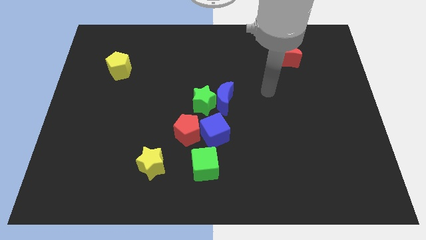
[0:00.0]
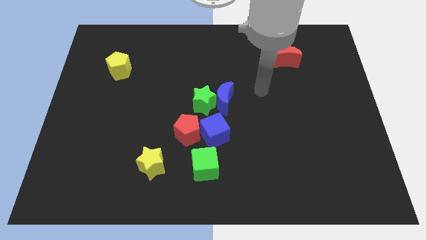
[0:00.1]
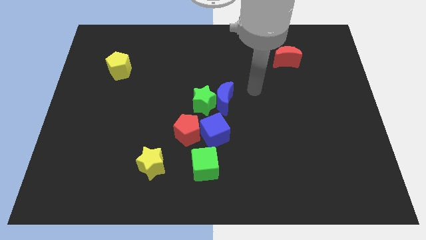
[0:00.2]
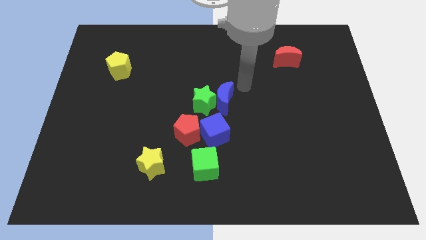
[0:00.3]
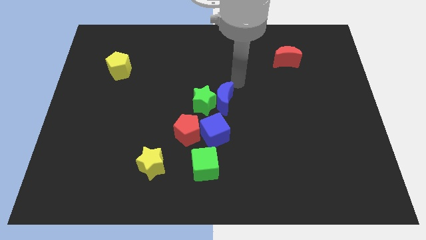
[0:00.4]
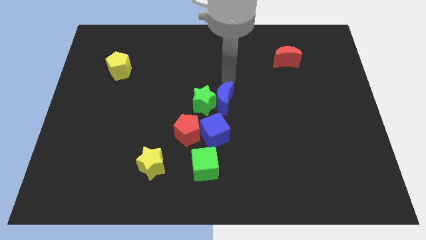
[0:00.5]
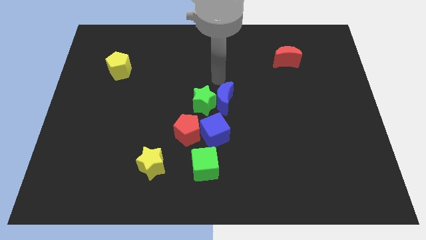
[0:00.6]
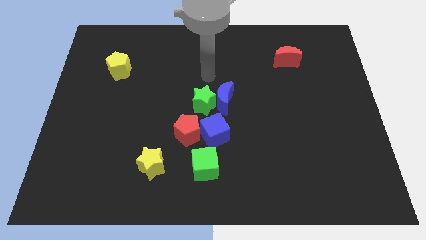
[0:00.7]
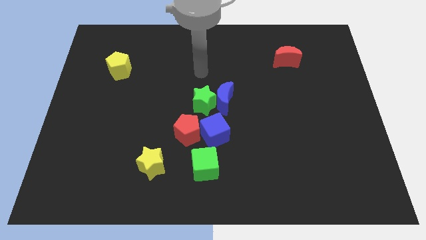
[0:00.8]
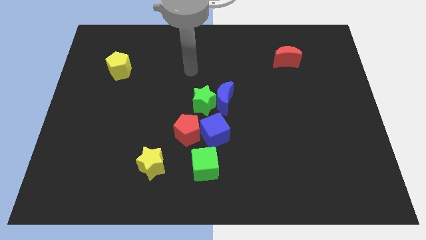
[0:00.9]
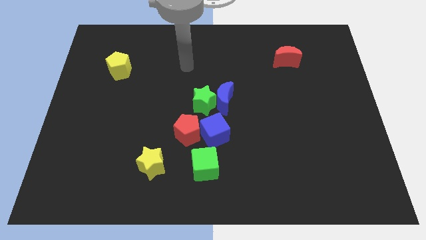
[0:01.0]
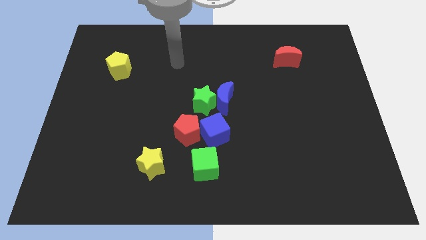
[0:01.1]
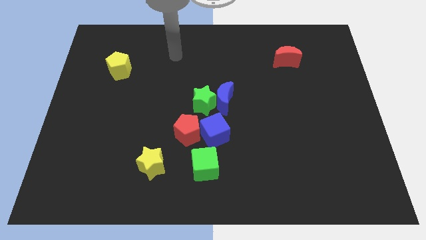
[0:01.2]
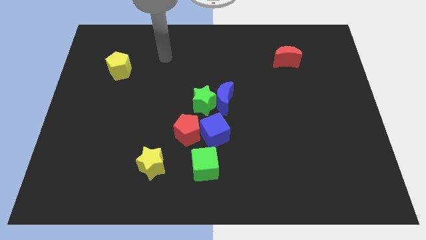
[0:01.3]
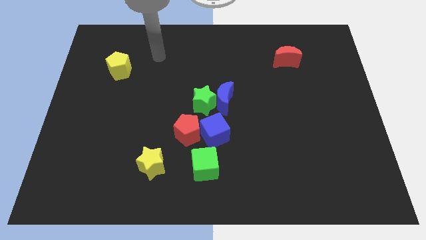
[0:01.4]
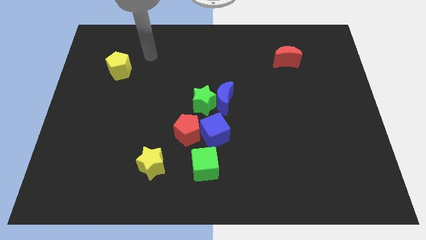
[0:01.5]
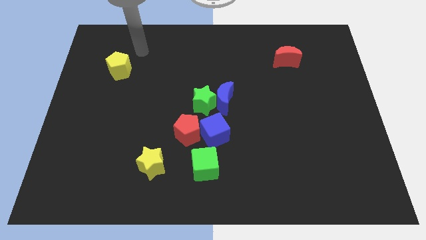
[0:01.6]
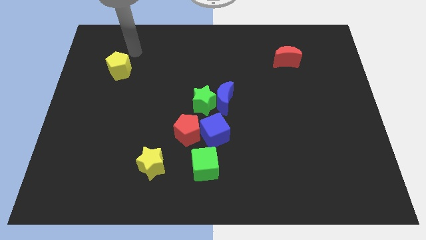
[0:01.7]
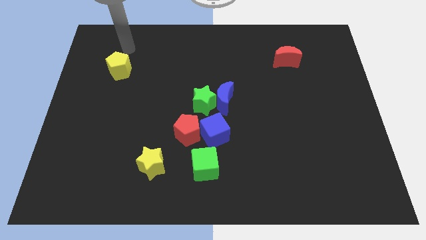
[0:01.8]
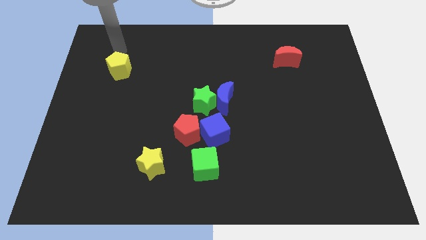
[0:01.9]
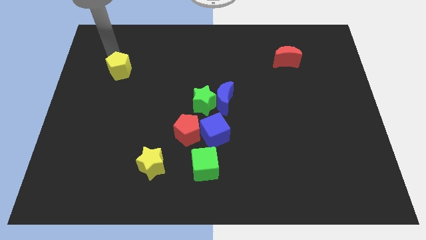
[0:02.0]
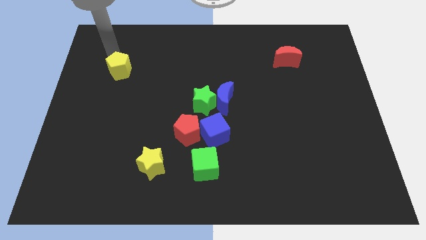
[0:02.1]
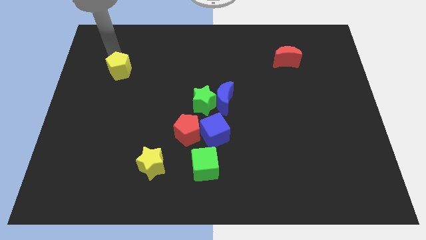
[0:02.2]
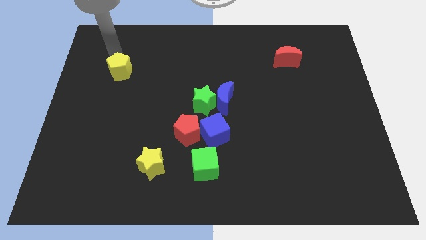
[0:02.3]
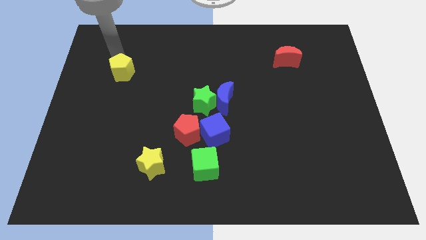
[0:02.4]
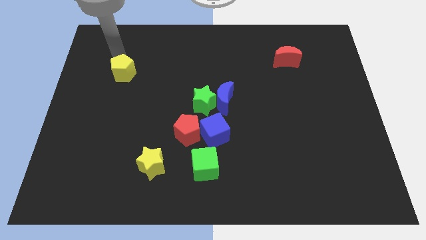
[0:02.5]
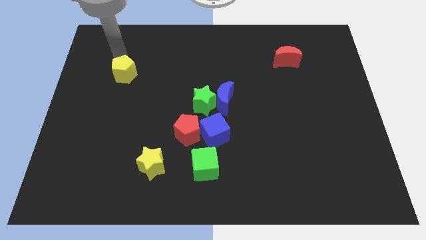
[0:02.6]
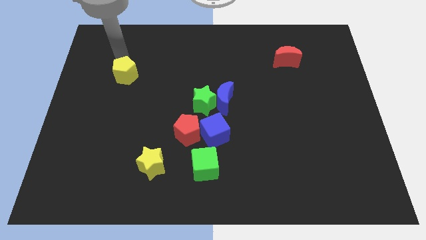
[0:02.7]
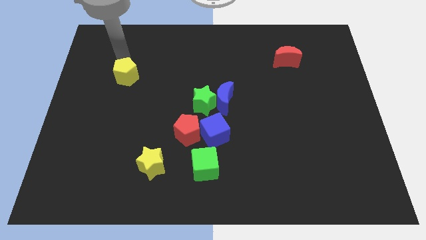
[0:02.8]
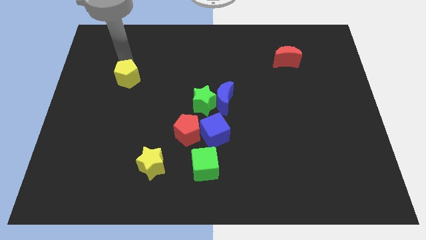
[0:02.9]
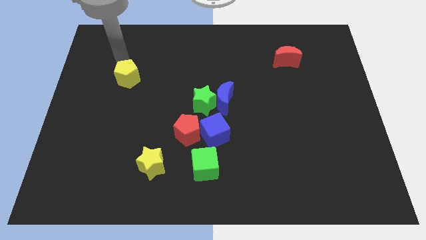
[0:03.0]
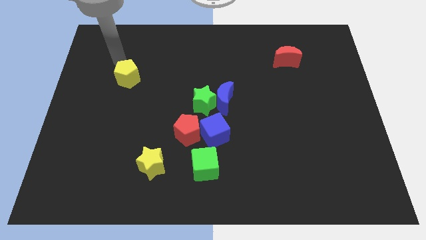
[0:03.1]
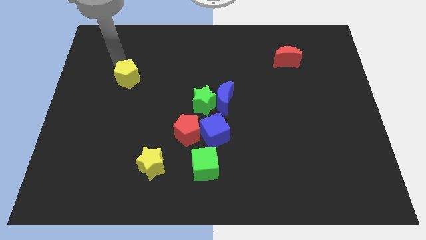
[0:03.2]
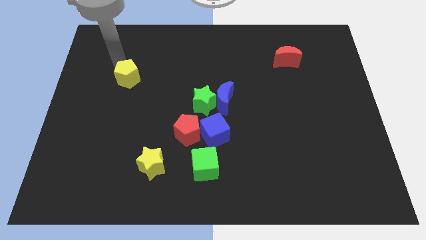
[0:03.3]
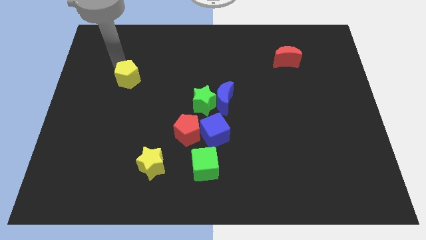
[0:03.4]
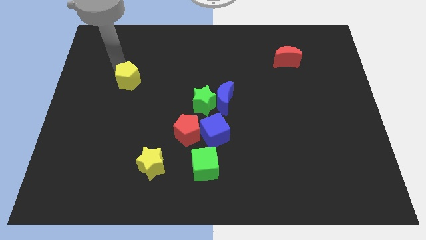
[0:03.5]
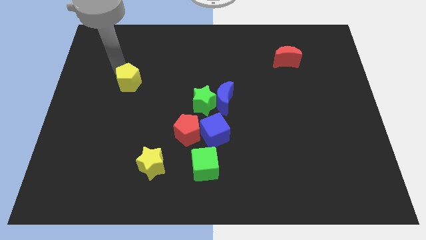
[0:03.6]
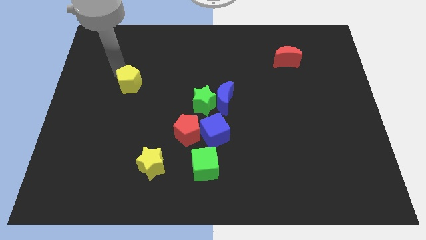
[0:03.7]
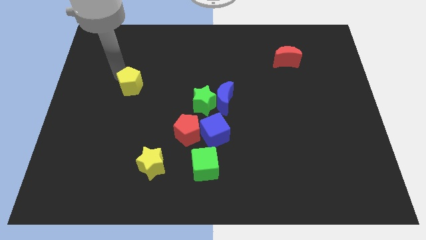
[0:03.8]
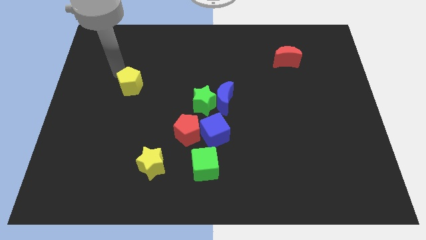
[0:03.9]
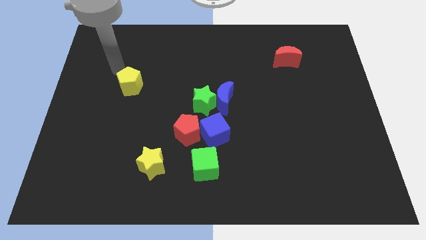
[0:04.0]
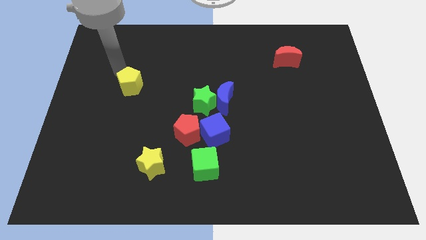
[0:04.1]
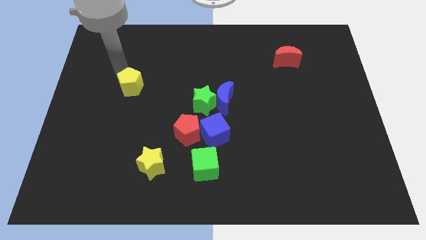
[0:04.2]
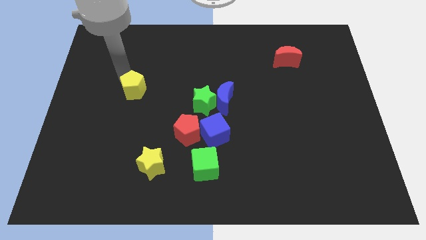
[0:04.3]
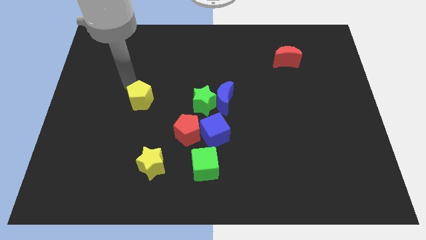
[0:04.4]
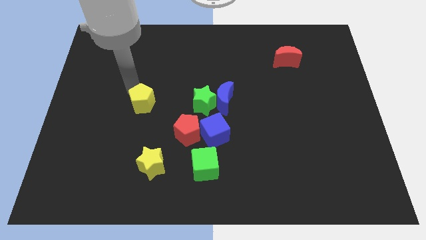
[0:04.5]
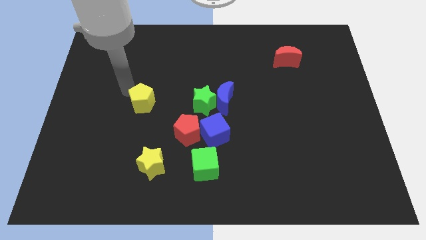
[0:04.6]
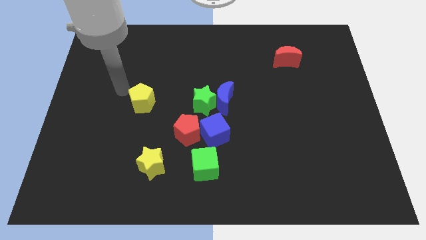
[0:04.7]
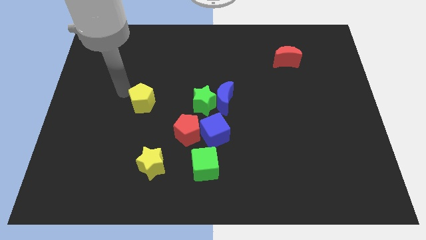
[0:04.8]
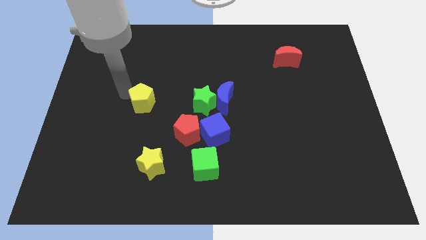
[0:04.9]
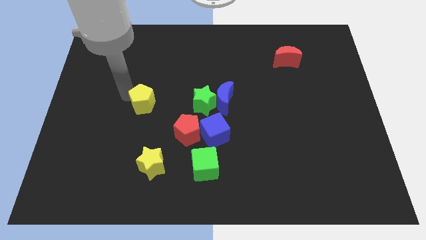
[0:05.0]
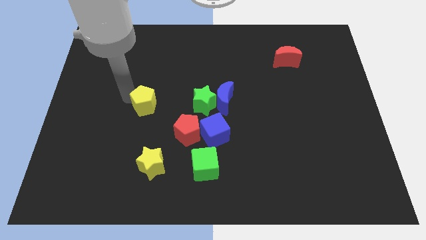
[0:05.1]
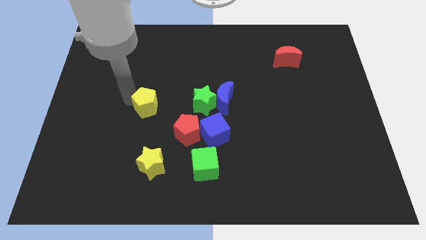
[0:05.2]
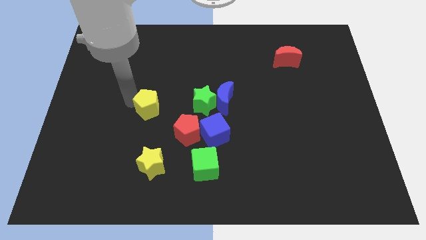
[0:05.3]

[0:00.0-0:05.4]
slide the yellow pentagon to the top left of the red pentagon

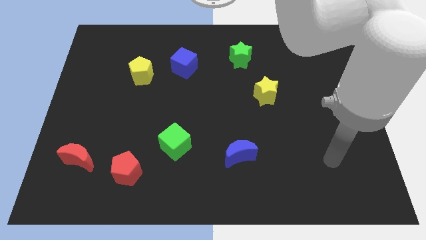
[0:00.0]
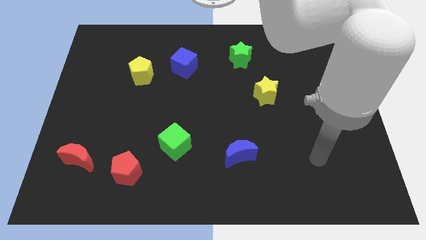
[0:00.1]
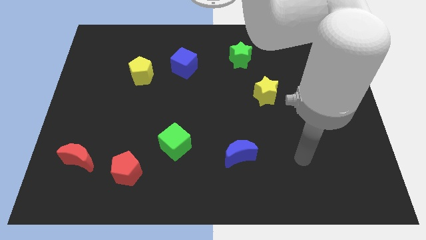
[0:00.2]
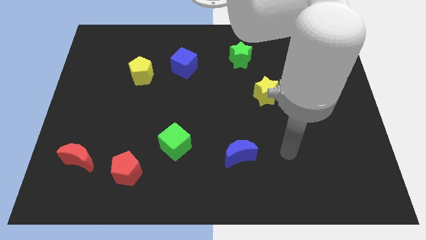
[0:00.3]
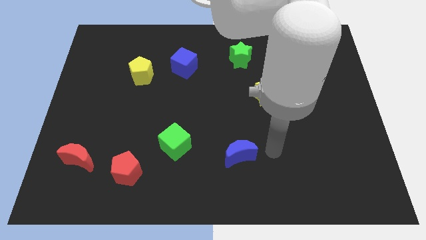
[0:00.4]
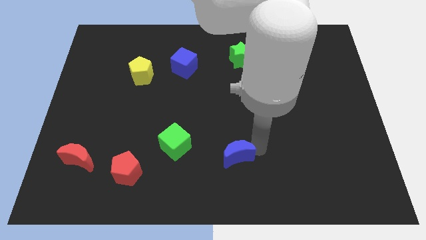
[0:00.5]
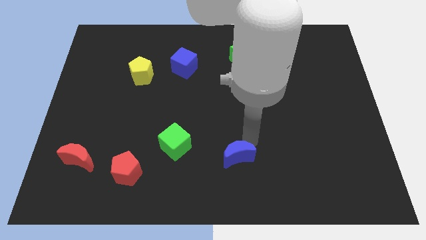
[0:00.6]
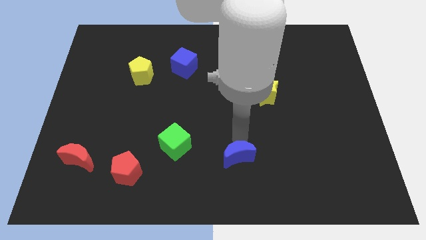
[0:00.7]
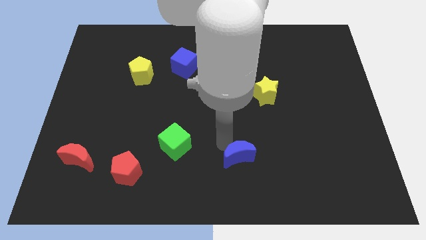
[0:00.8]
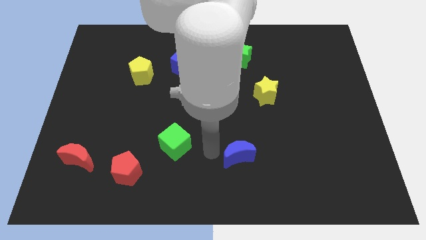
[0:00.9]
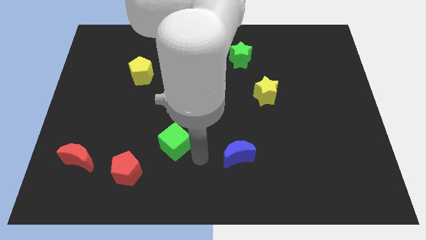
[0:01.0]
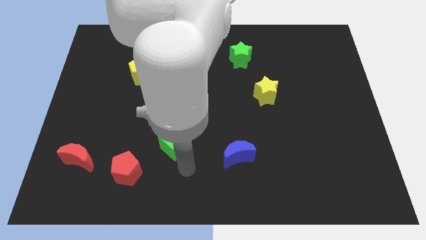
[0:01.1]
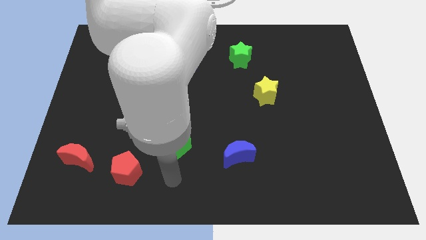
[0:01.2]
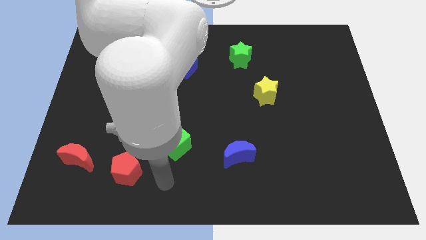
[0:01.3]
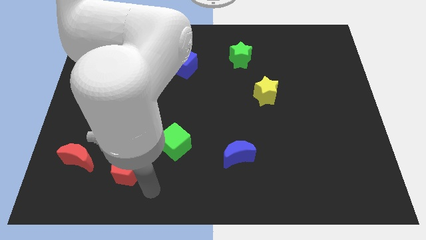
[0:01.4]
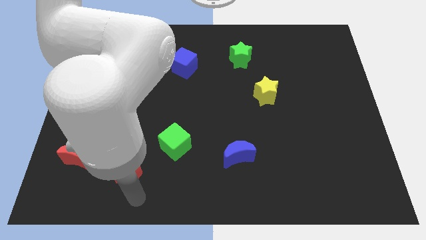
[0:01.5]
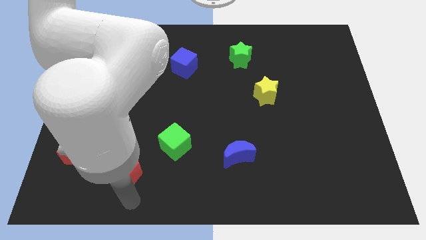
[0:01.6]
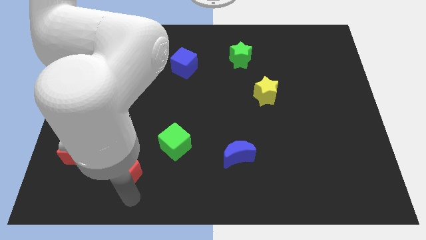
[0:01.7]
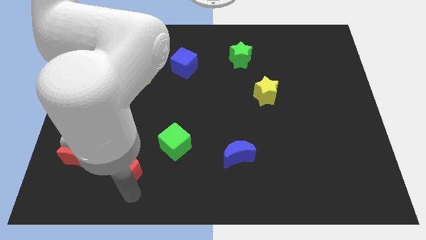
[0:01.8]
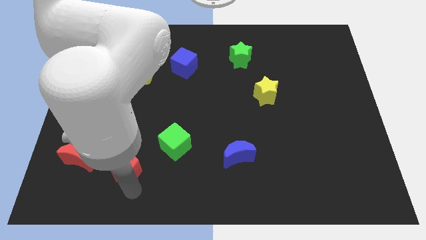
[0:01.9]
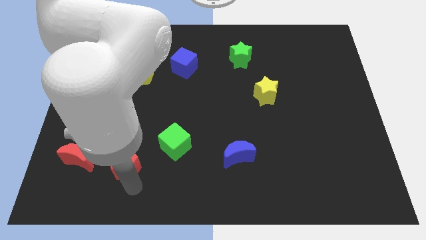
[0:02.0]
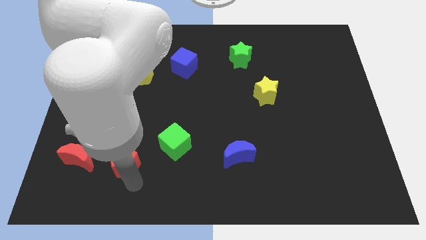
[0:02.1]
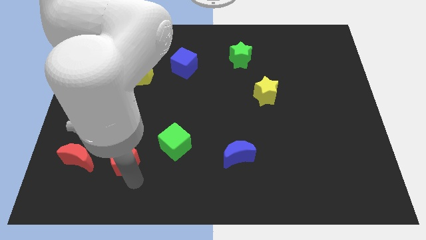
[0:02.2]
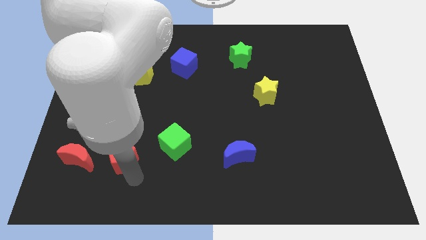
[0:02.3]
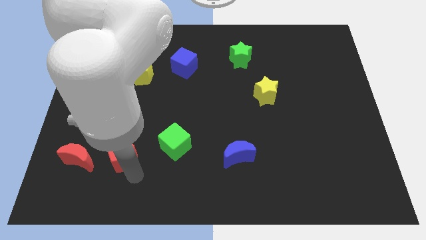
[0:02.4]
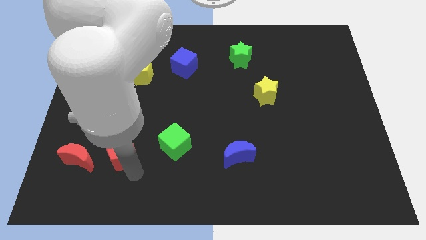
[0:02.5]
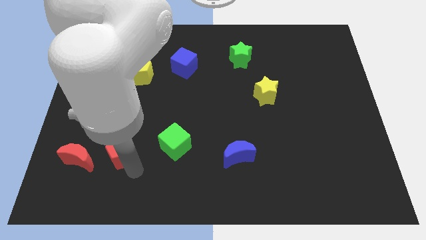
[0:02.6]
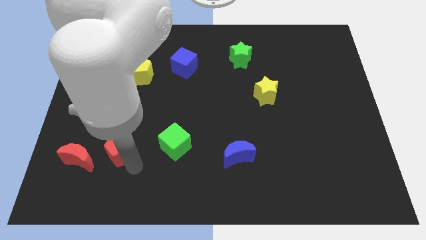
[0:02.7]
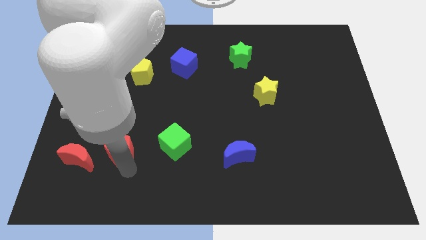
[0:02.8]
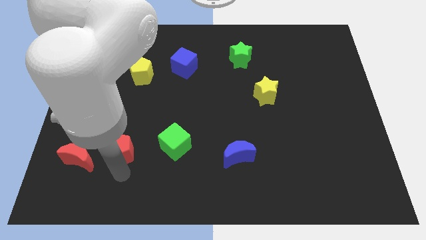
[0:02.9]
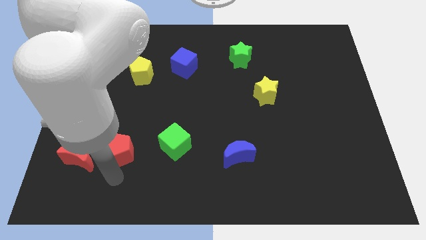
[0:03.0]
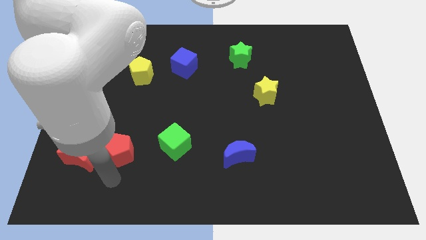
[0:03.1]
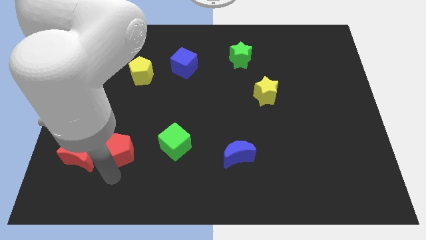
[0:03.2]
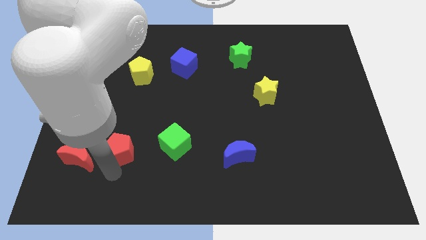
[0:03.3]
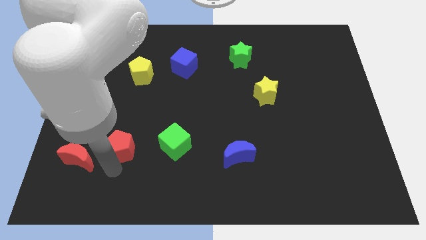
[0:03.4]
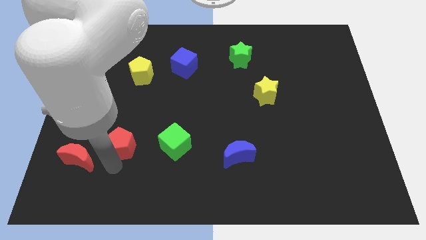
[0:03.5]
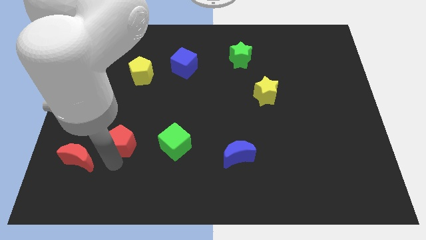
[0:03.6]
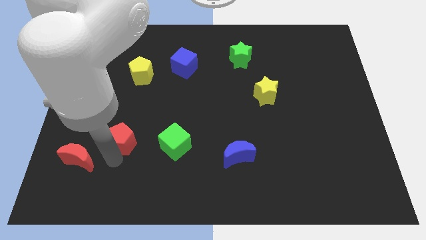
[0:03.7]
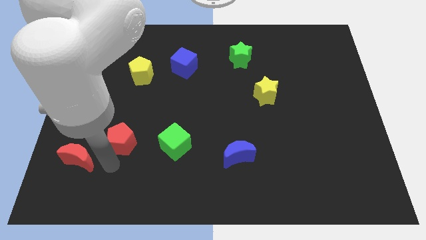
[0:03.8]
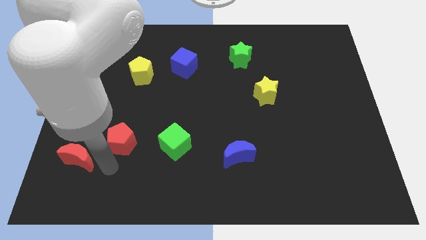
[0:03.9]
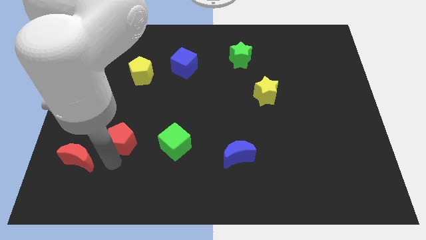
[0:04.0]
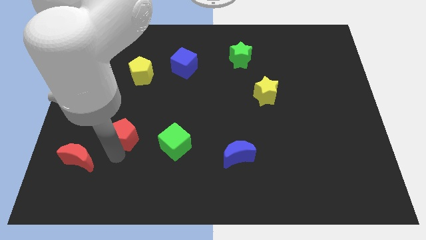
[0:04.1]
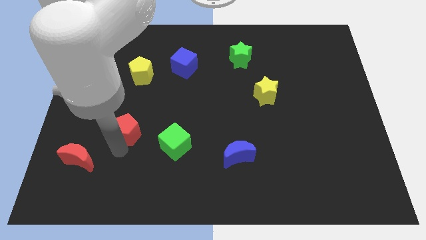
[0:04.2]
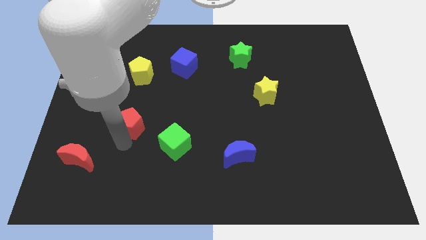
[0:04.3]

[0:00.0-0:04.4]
put the red pentagon below the yellow pentagon
